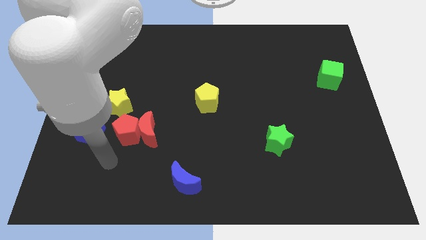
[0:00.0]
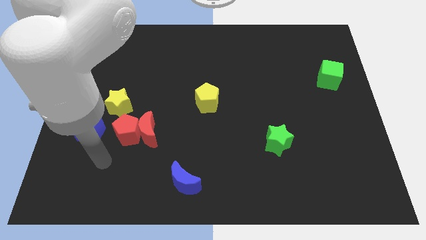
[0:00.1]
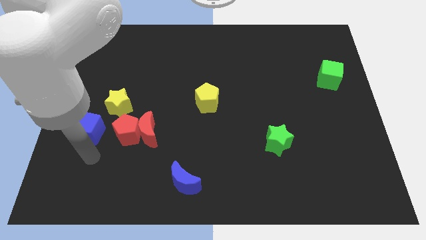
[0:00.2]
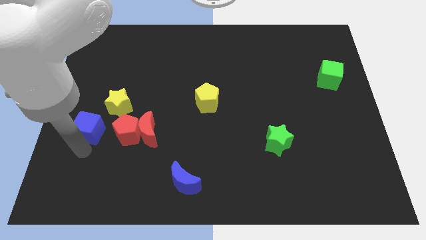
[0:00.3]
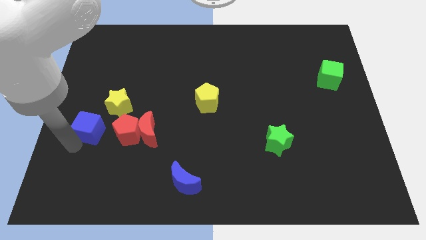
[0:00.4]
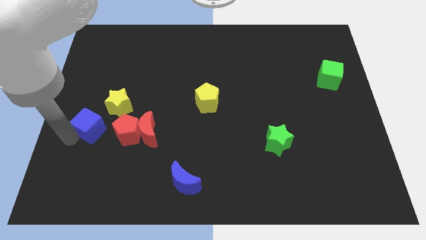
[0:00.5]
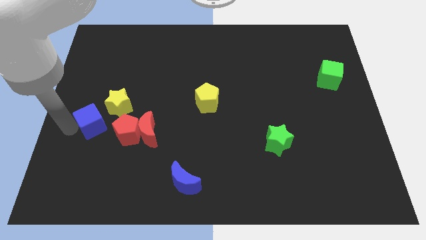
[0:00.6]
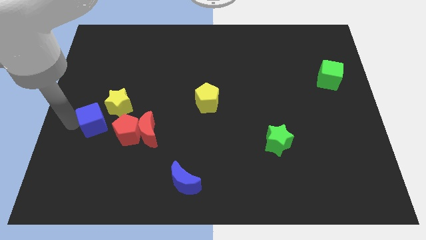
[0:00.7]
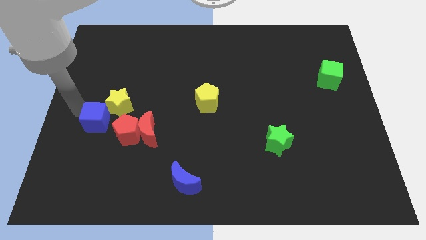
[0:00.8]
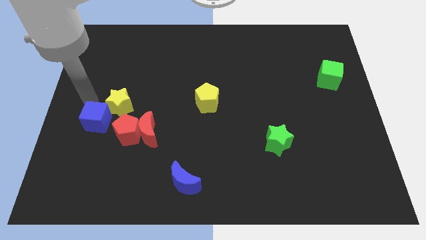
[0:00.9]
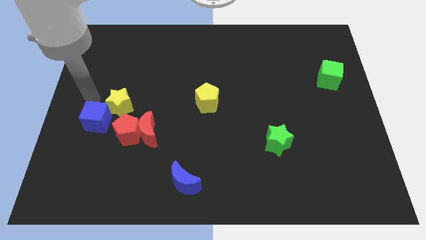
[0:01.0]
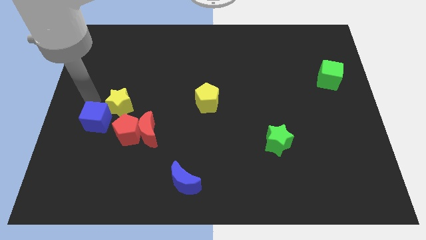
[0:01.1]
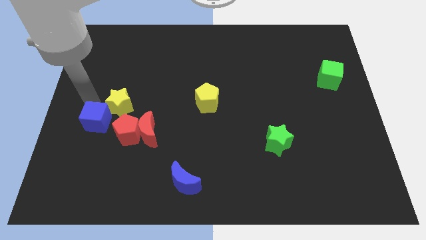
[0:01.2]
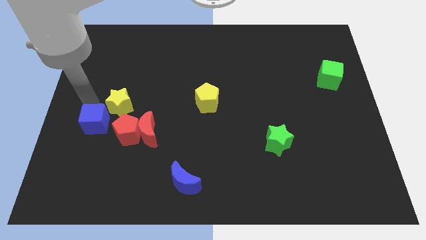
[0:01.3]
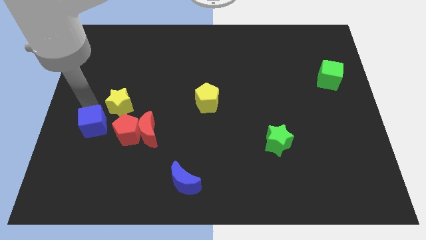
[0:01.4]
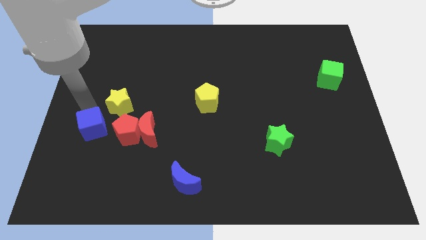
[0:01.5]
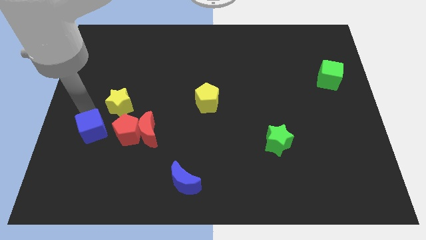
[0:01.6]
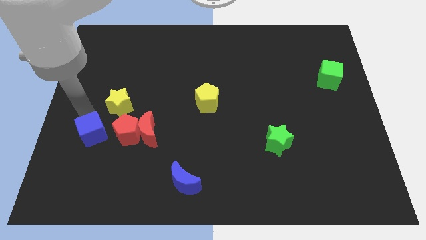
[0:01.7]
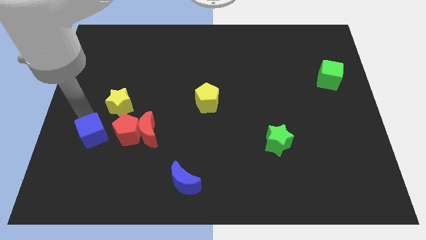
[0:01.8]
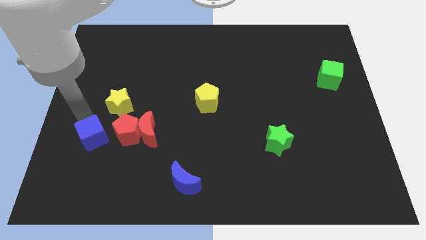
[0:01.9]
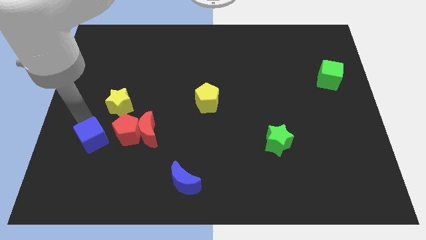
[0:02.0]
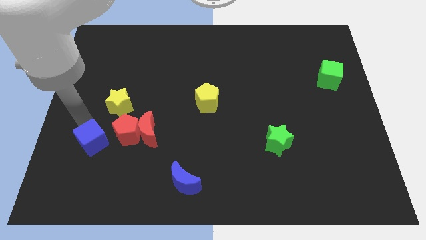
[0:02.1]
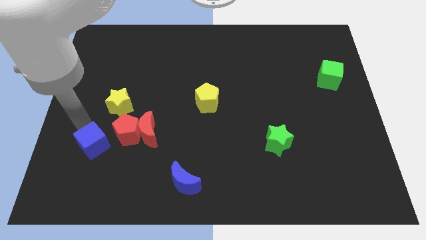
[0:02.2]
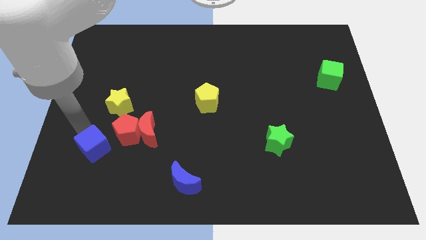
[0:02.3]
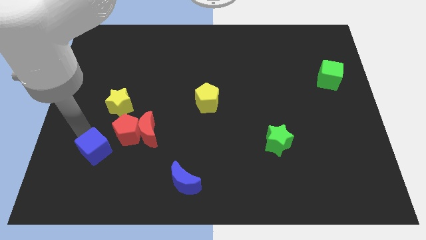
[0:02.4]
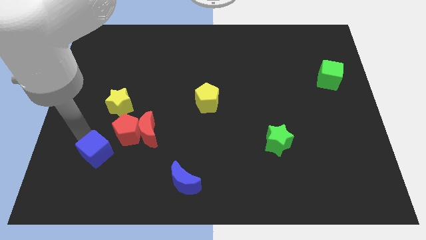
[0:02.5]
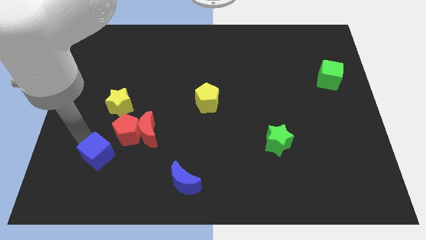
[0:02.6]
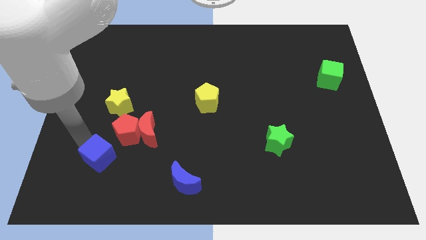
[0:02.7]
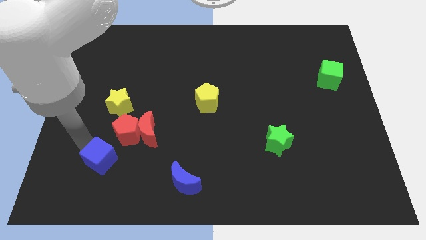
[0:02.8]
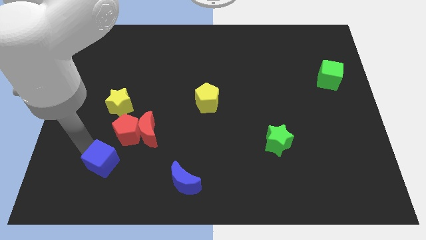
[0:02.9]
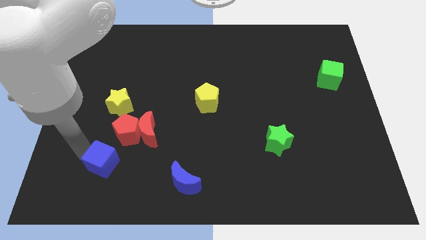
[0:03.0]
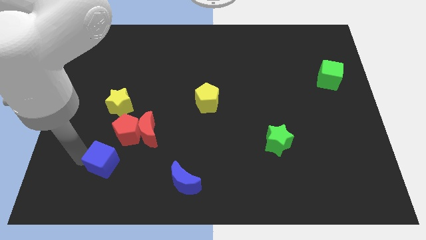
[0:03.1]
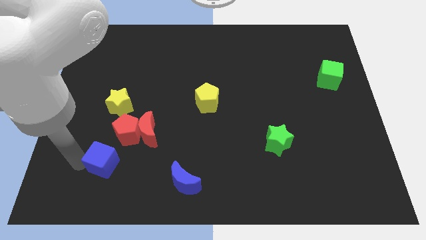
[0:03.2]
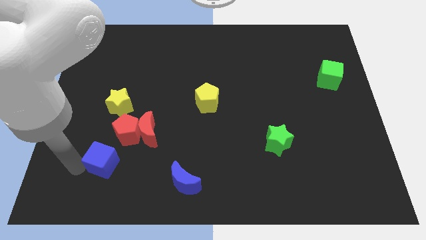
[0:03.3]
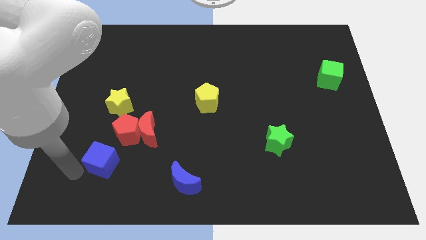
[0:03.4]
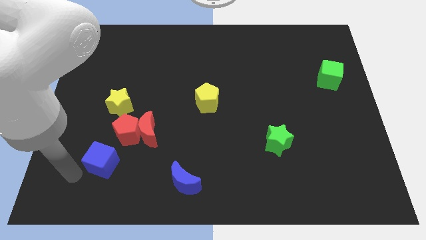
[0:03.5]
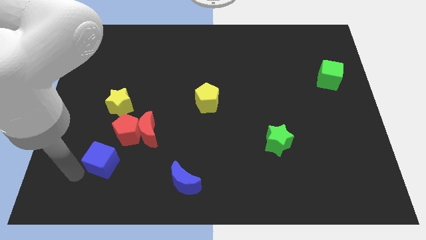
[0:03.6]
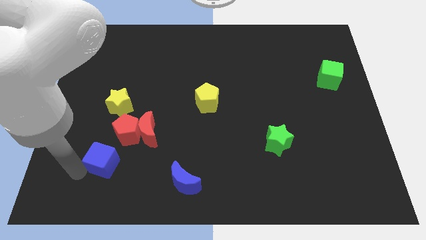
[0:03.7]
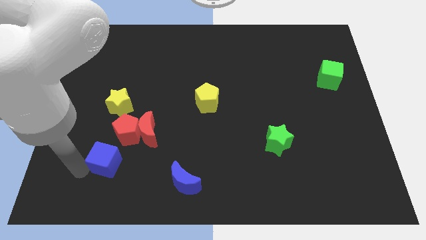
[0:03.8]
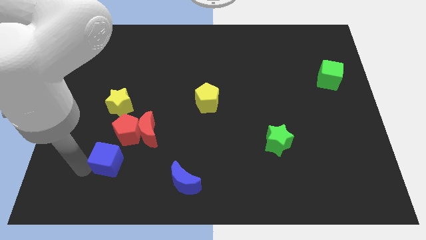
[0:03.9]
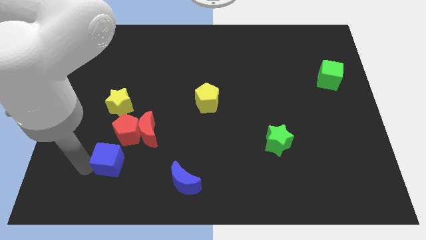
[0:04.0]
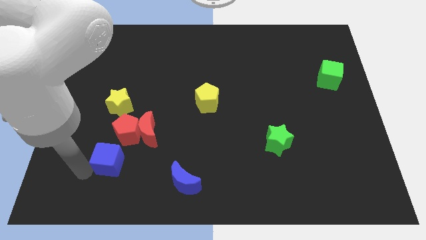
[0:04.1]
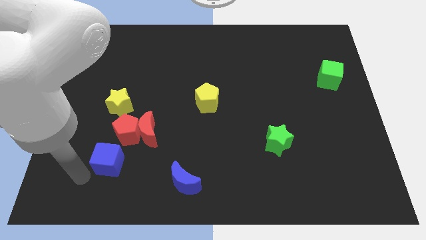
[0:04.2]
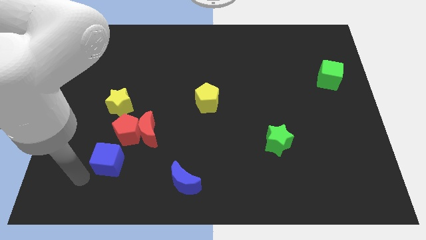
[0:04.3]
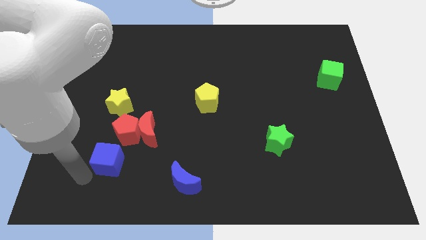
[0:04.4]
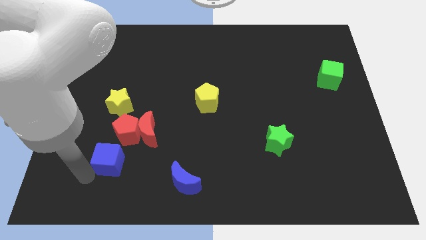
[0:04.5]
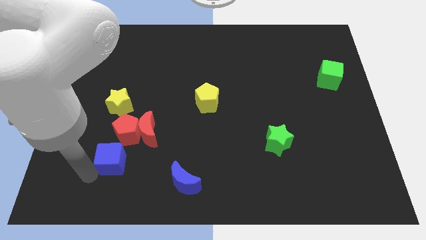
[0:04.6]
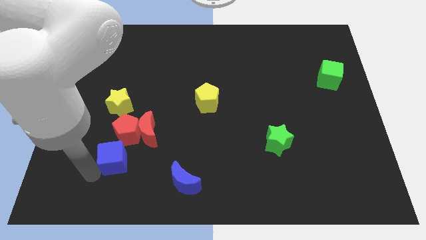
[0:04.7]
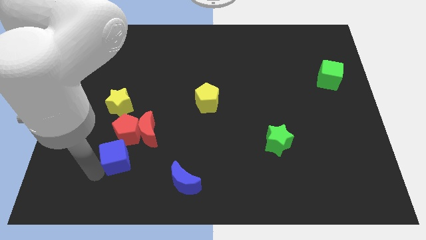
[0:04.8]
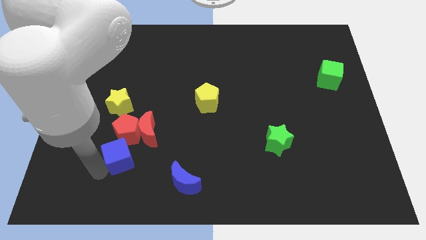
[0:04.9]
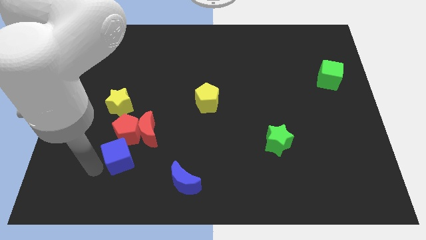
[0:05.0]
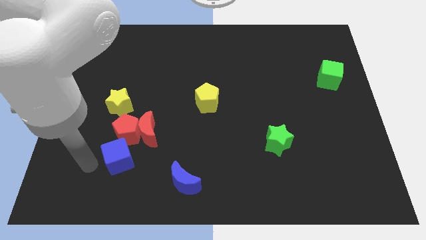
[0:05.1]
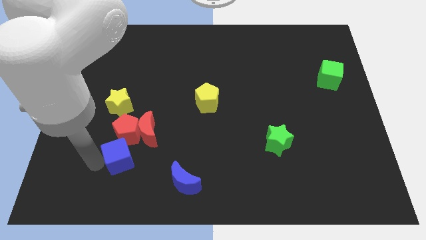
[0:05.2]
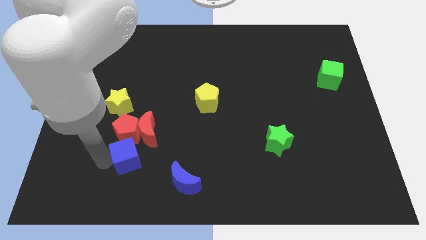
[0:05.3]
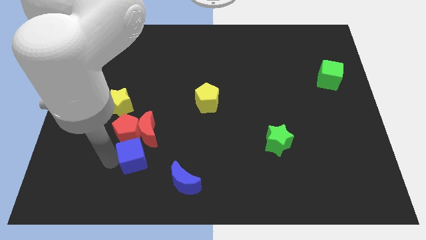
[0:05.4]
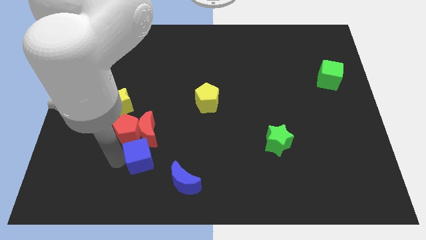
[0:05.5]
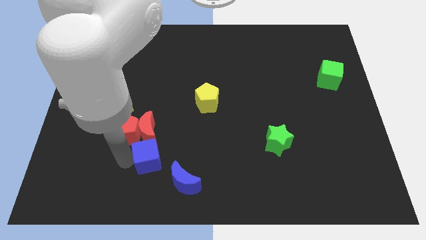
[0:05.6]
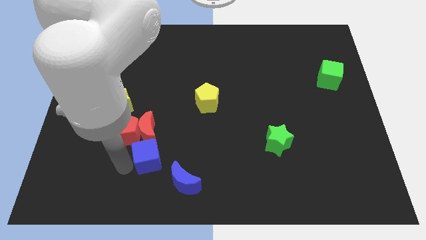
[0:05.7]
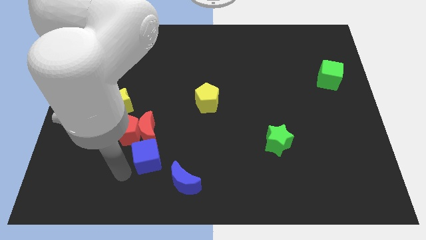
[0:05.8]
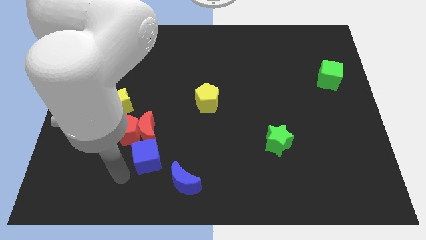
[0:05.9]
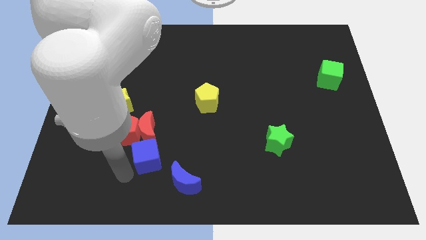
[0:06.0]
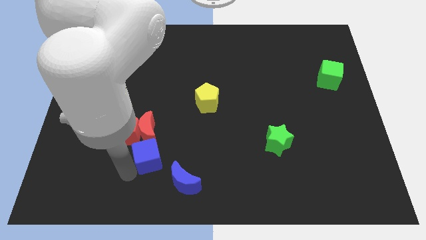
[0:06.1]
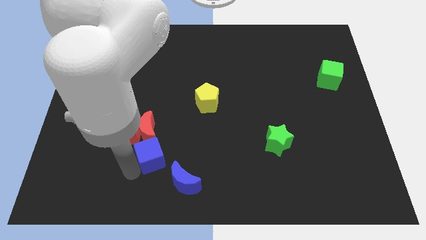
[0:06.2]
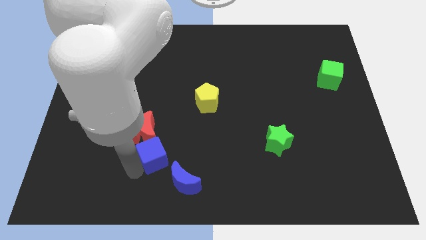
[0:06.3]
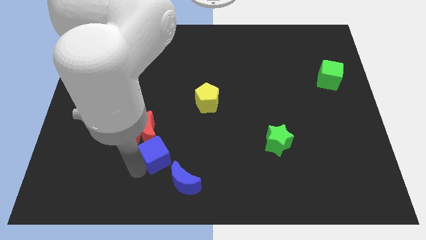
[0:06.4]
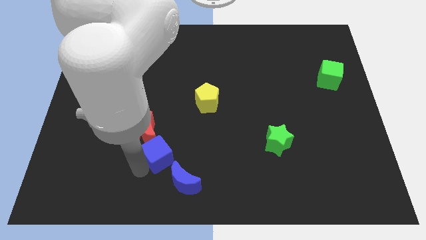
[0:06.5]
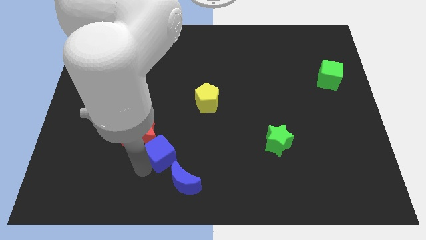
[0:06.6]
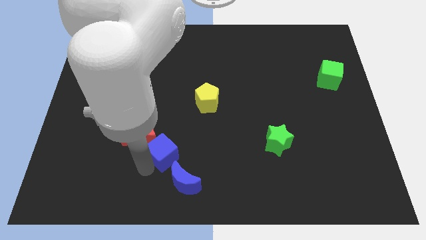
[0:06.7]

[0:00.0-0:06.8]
push the blue cube to the top side of the blue moon
